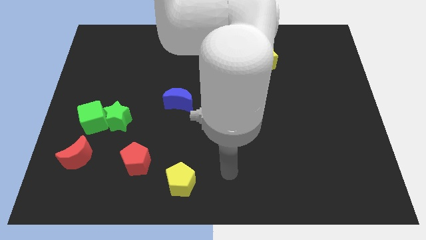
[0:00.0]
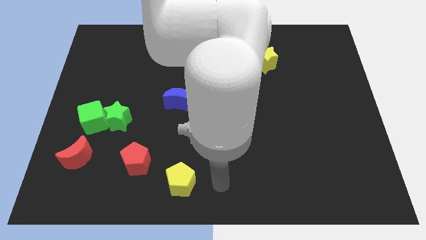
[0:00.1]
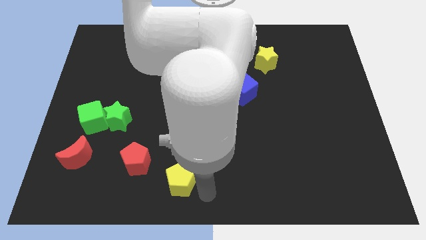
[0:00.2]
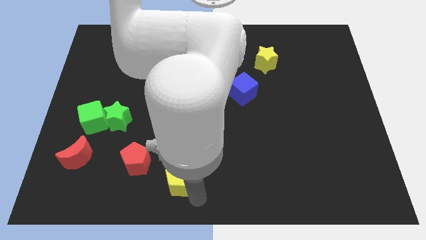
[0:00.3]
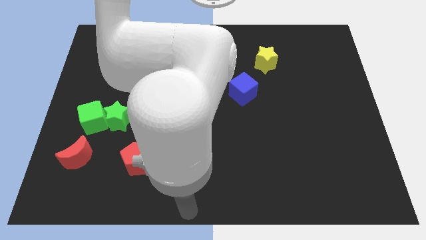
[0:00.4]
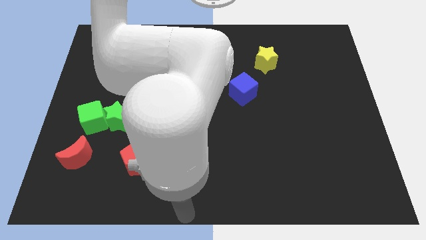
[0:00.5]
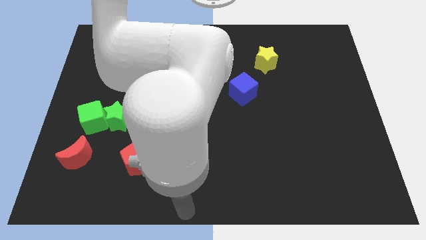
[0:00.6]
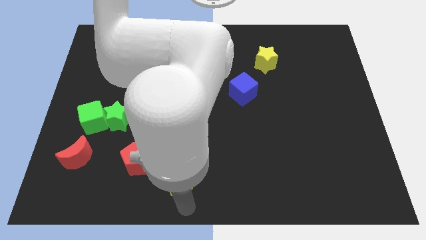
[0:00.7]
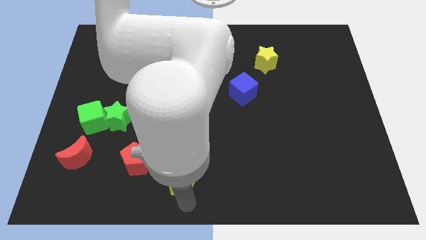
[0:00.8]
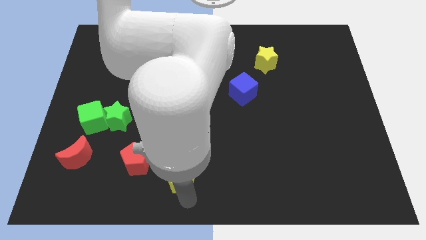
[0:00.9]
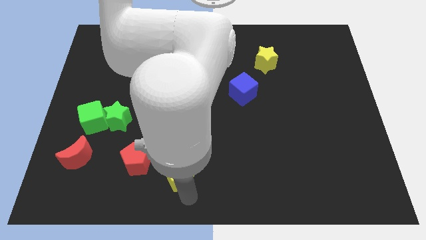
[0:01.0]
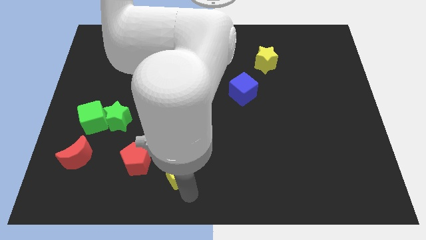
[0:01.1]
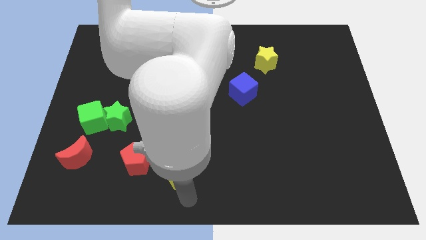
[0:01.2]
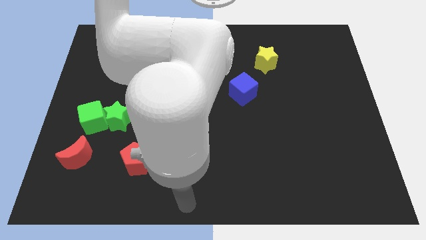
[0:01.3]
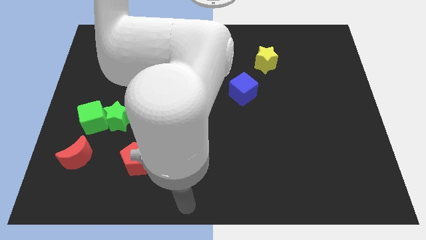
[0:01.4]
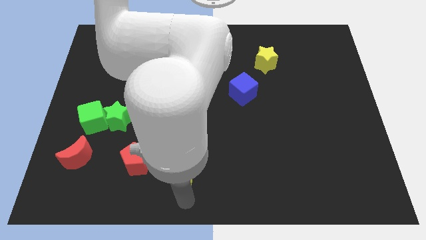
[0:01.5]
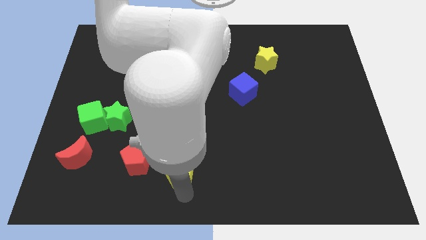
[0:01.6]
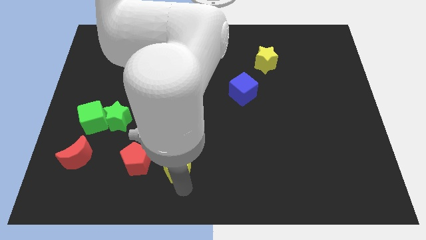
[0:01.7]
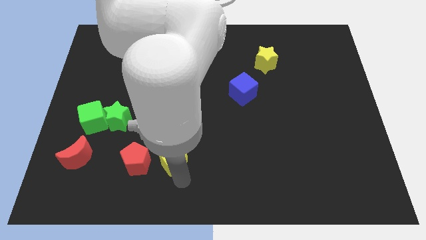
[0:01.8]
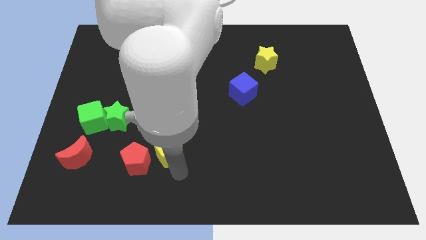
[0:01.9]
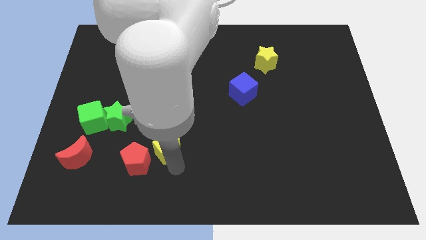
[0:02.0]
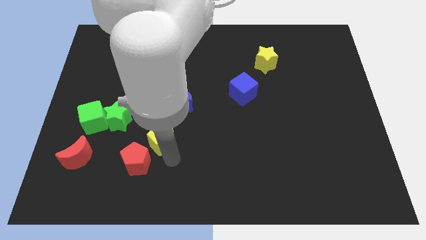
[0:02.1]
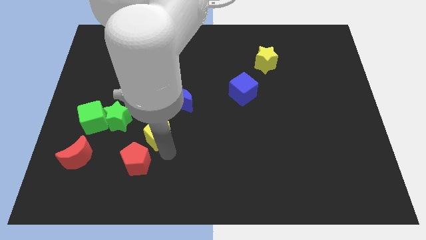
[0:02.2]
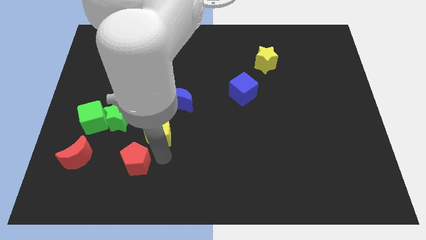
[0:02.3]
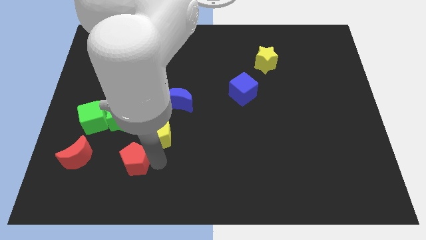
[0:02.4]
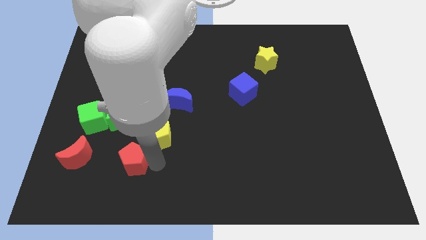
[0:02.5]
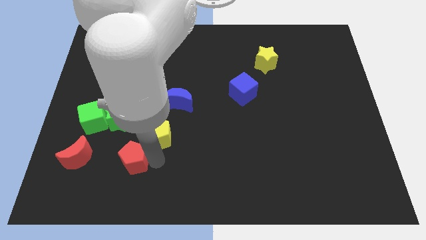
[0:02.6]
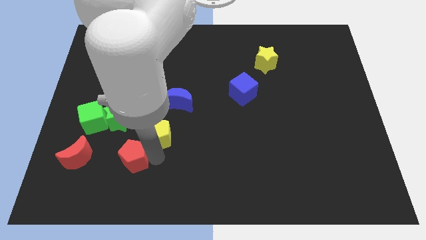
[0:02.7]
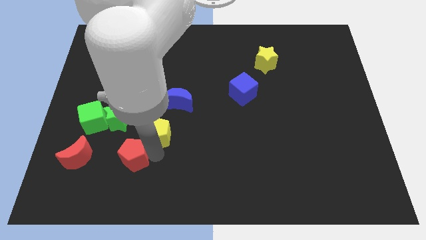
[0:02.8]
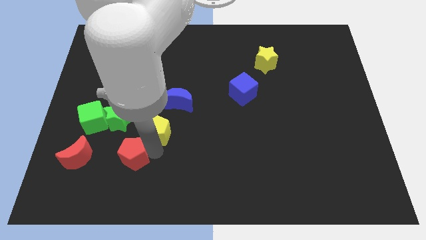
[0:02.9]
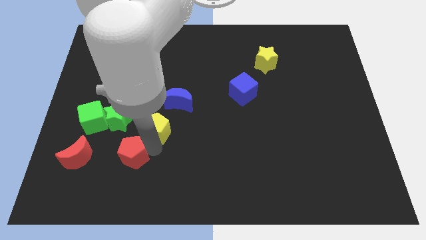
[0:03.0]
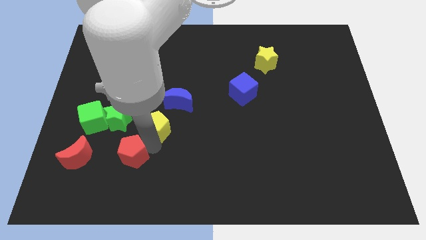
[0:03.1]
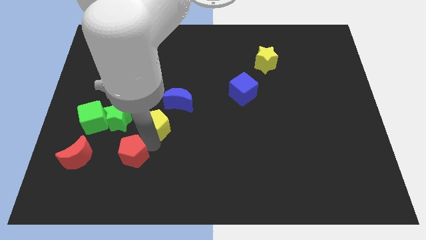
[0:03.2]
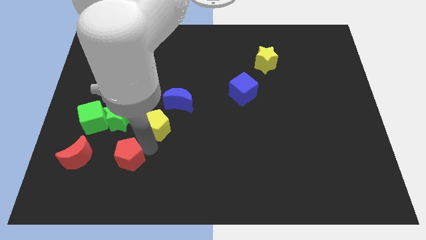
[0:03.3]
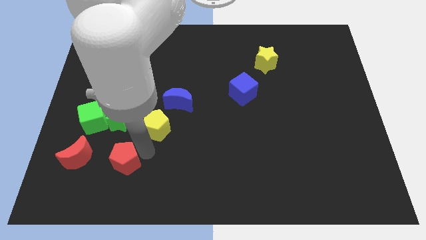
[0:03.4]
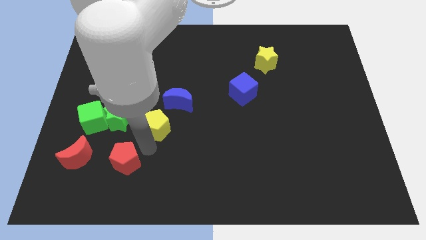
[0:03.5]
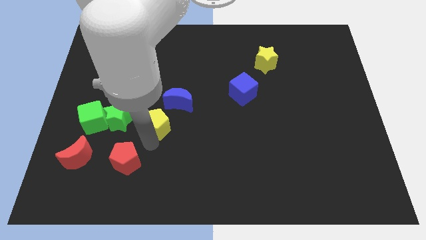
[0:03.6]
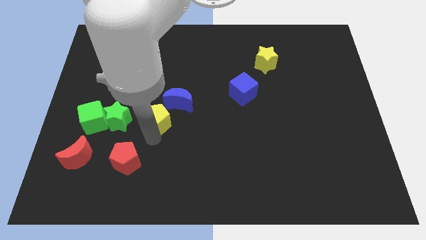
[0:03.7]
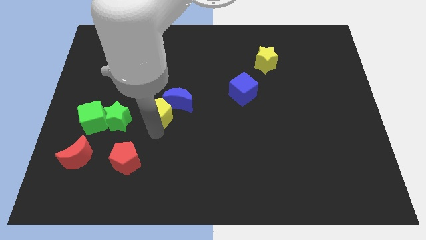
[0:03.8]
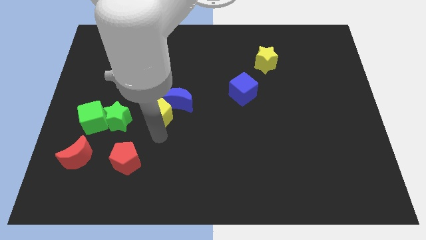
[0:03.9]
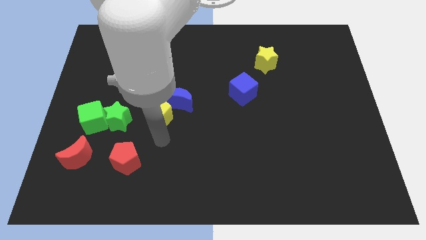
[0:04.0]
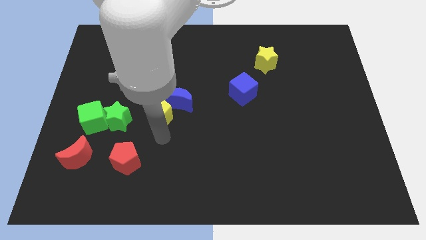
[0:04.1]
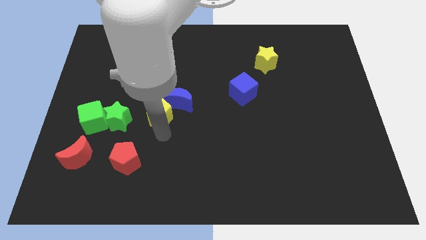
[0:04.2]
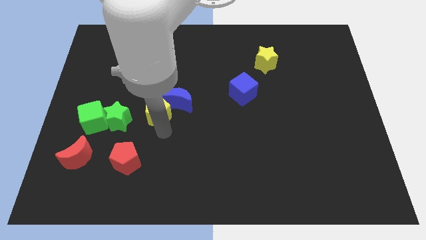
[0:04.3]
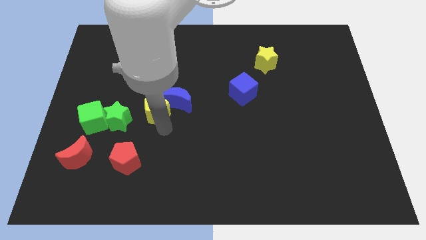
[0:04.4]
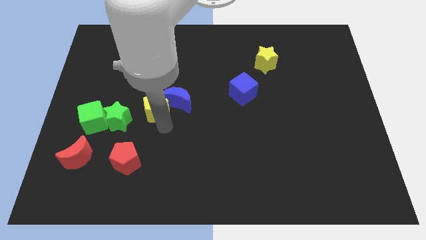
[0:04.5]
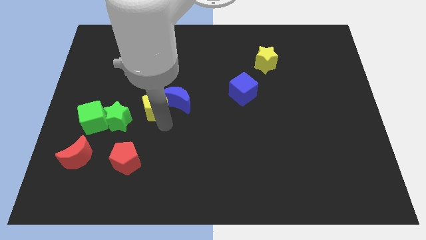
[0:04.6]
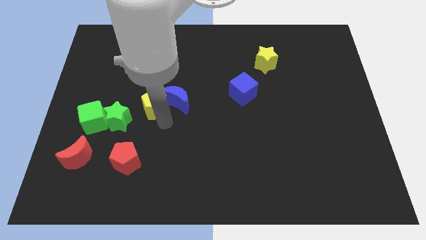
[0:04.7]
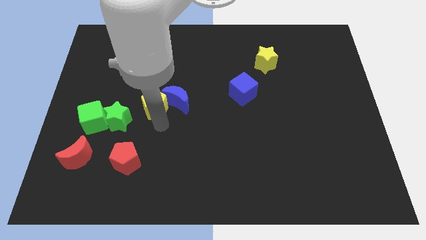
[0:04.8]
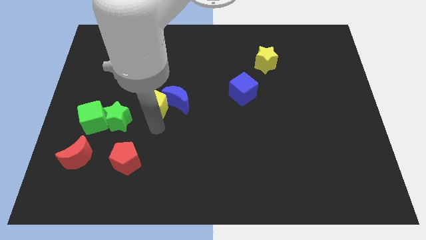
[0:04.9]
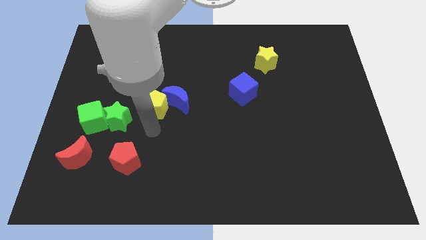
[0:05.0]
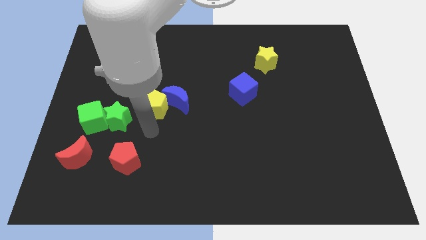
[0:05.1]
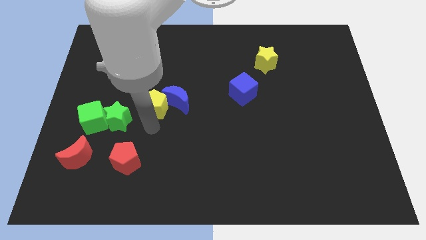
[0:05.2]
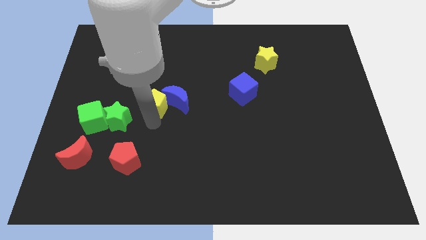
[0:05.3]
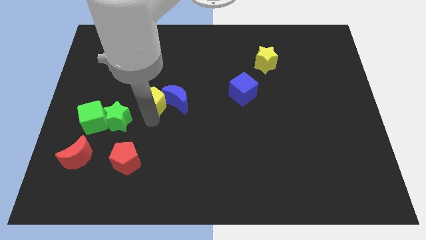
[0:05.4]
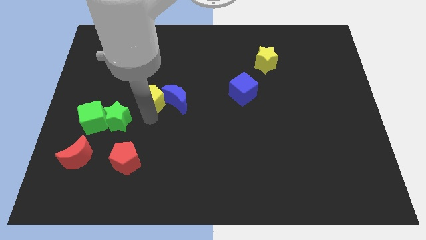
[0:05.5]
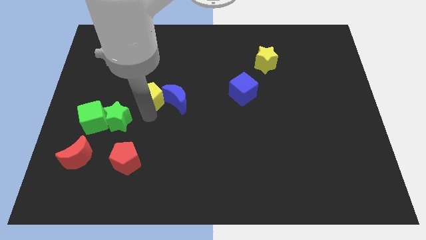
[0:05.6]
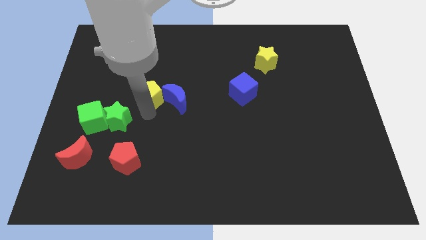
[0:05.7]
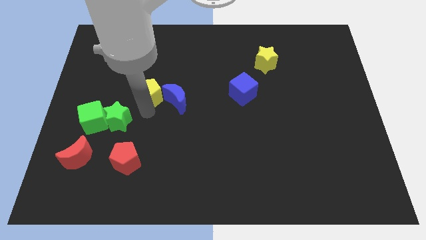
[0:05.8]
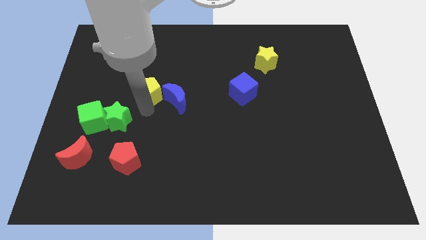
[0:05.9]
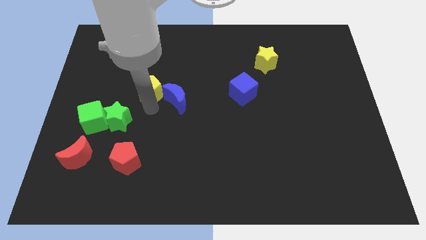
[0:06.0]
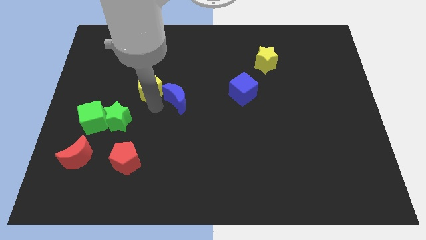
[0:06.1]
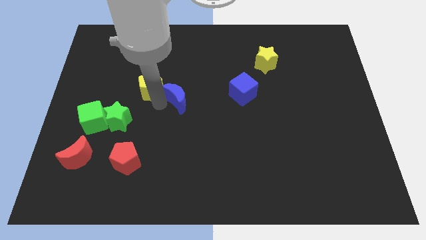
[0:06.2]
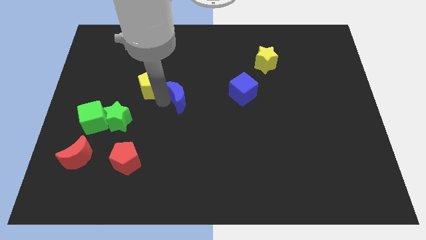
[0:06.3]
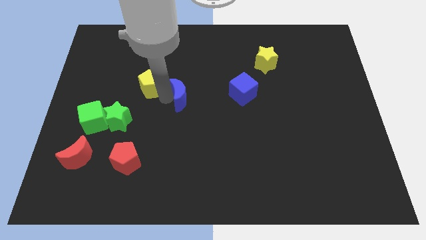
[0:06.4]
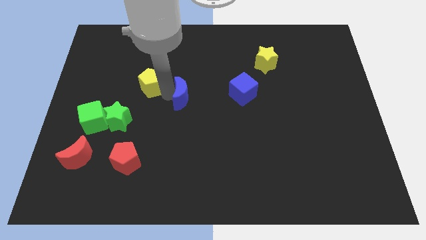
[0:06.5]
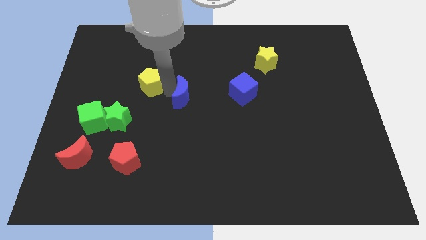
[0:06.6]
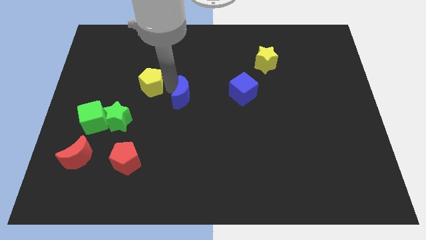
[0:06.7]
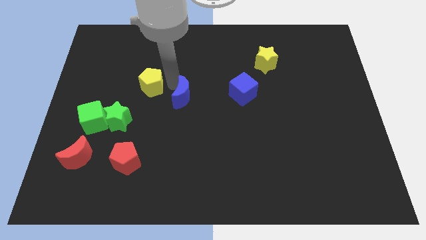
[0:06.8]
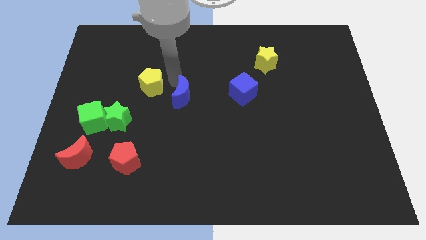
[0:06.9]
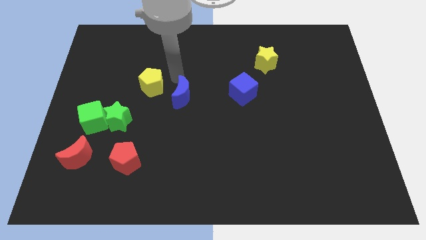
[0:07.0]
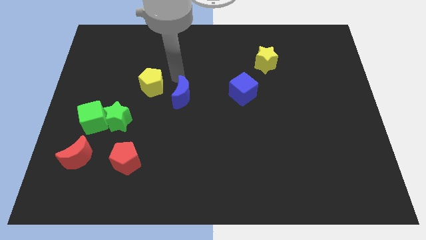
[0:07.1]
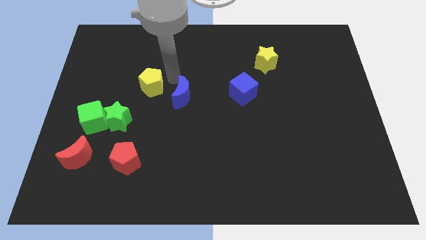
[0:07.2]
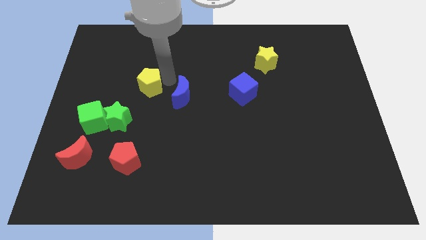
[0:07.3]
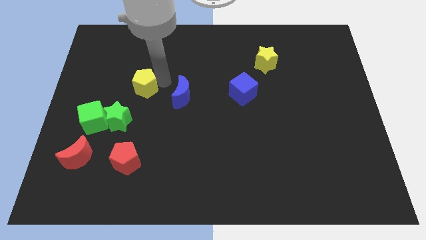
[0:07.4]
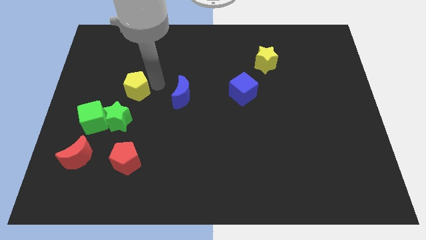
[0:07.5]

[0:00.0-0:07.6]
move the yellow pentagon to the top of the green star
